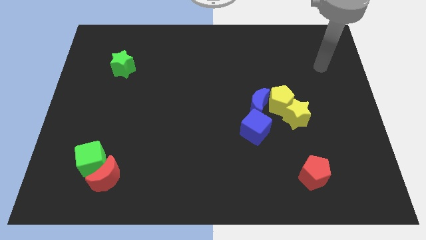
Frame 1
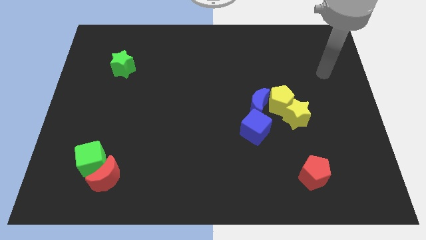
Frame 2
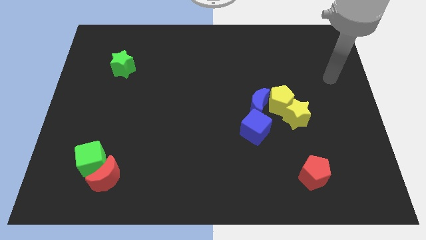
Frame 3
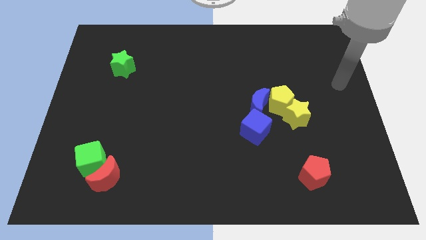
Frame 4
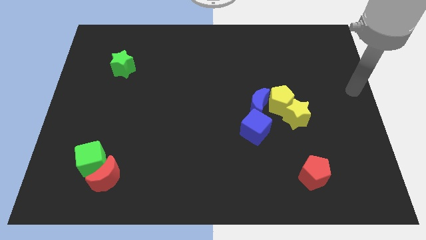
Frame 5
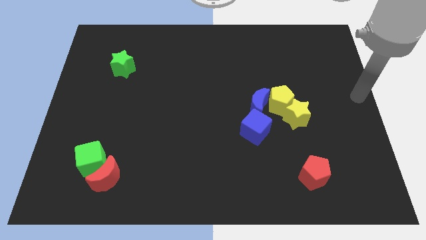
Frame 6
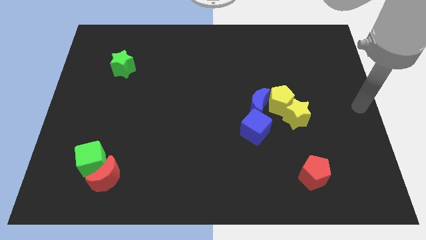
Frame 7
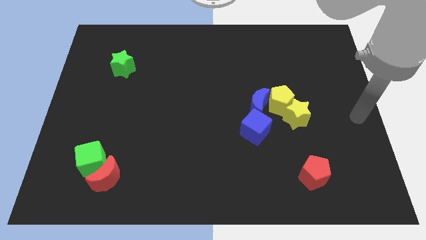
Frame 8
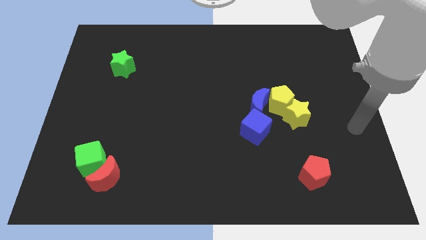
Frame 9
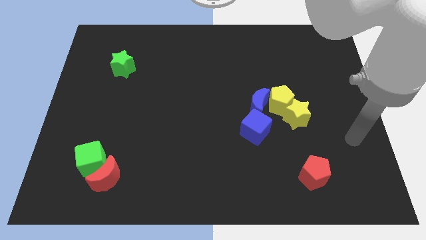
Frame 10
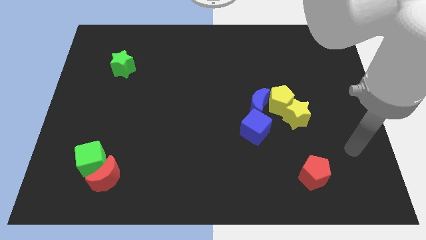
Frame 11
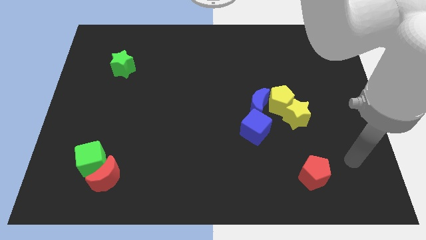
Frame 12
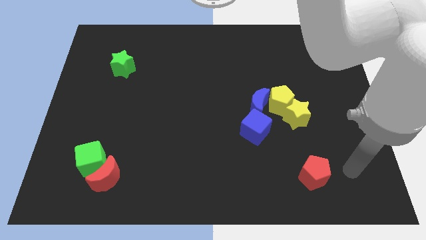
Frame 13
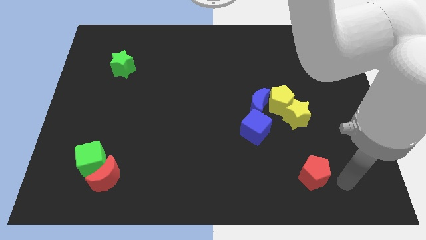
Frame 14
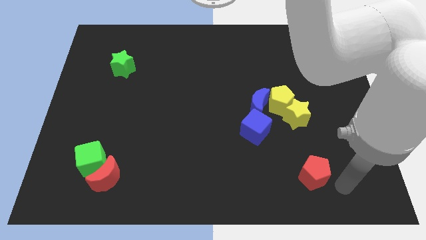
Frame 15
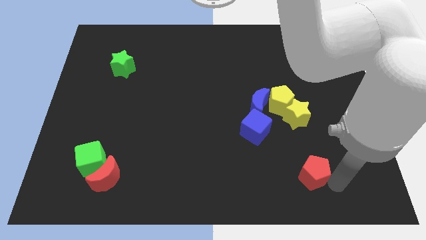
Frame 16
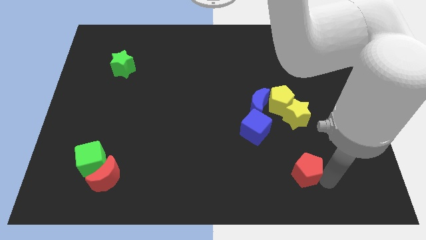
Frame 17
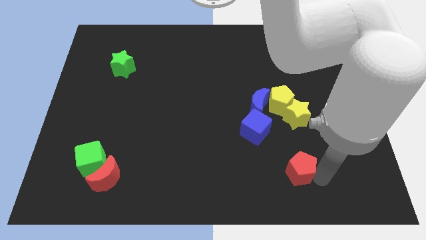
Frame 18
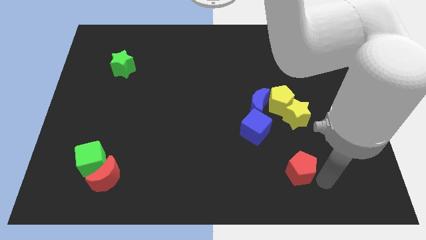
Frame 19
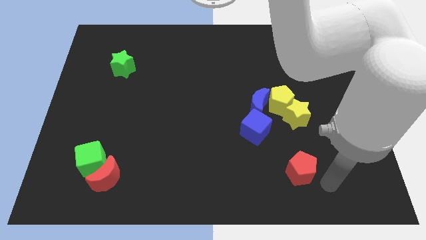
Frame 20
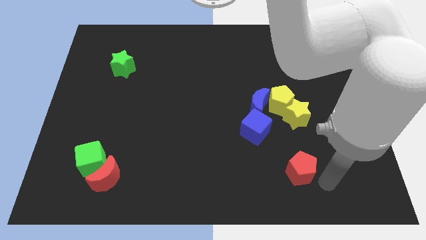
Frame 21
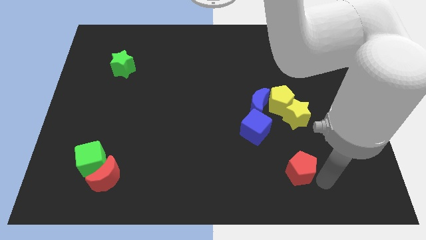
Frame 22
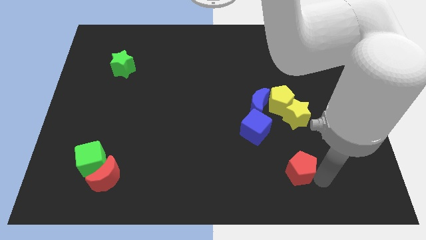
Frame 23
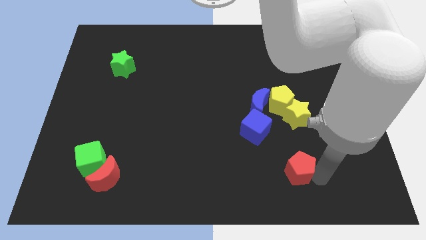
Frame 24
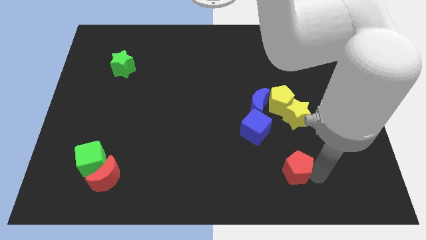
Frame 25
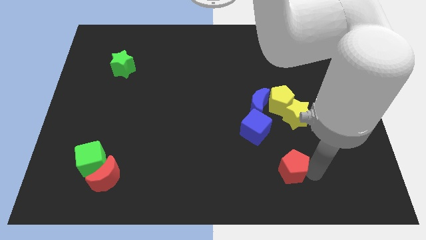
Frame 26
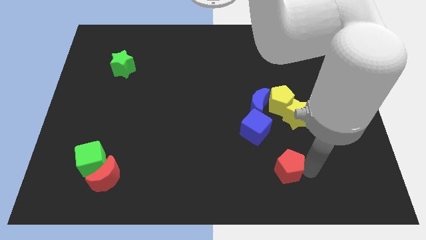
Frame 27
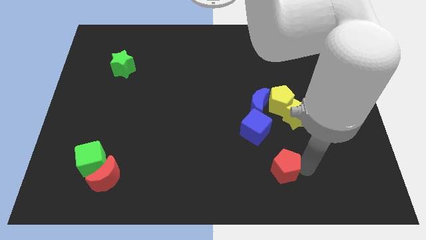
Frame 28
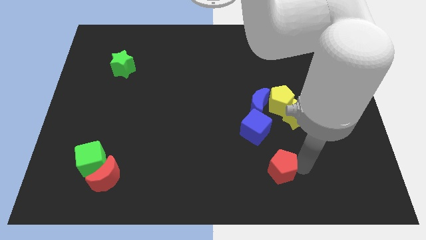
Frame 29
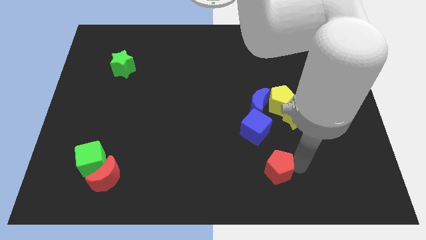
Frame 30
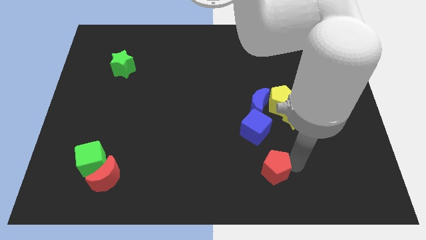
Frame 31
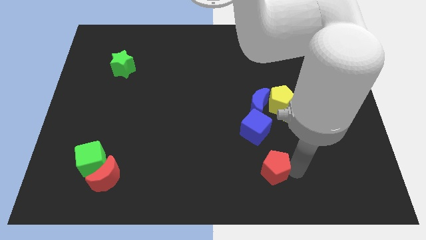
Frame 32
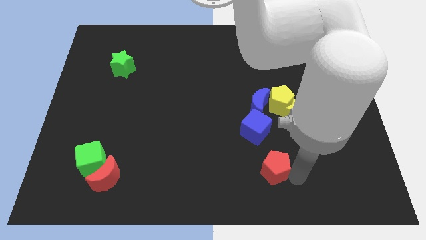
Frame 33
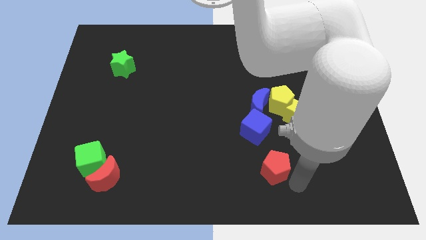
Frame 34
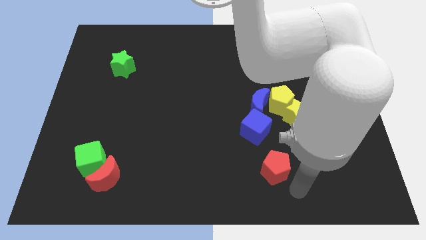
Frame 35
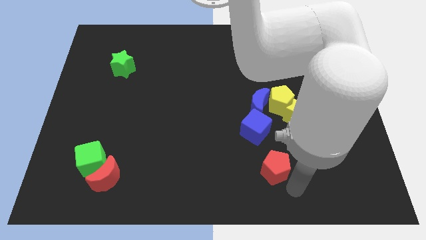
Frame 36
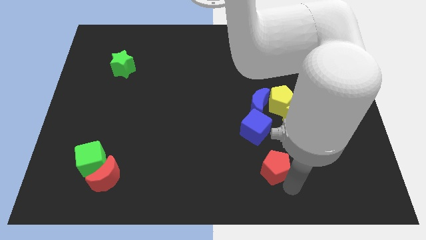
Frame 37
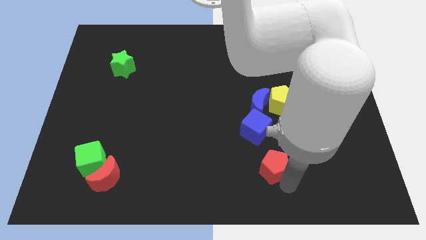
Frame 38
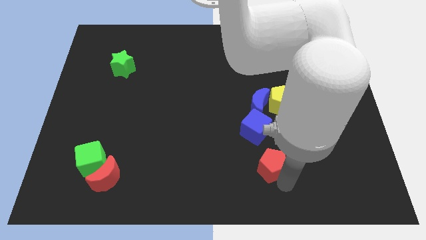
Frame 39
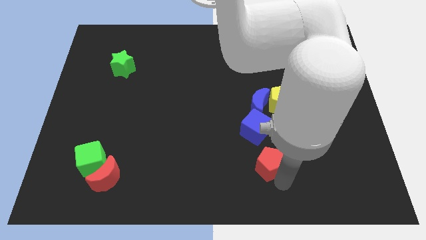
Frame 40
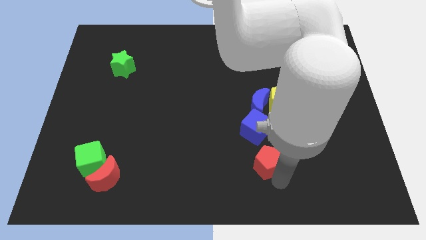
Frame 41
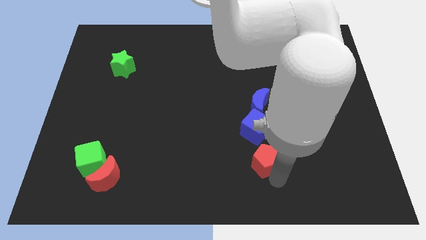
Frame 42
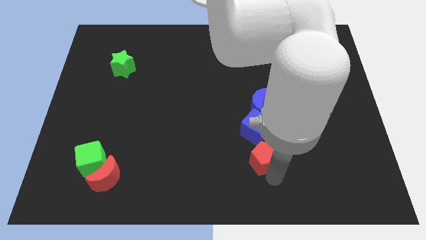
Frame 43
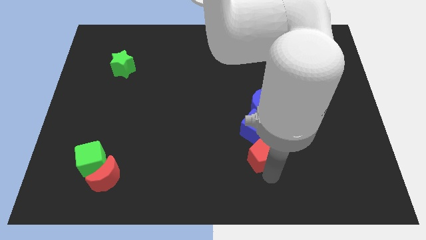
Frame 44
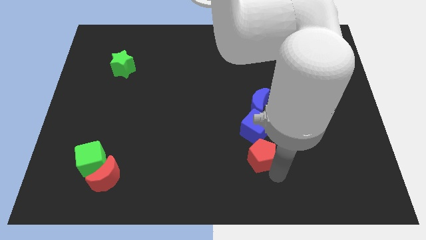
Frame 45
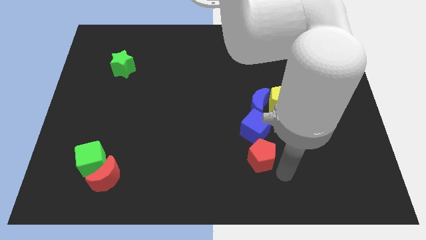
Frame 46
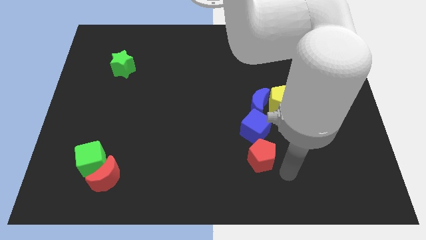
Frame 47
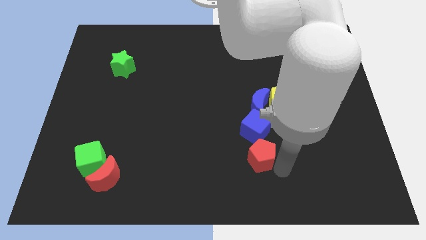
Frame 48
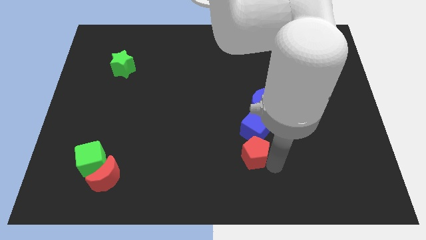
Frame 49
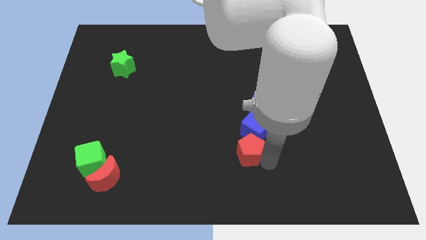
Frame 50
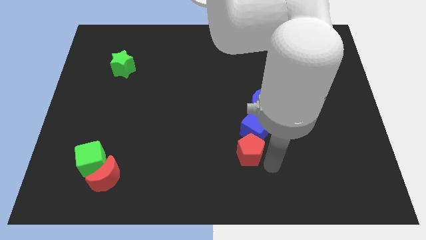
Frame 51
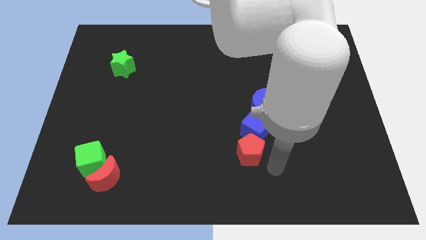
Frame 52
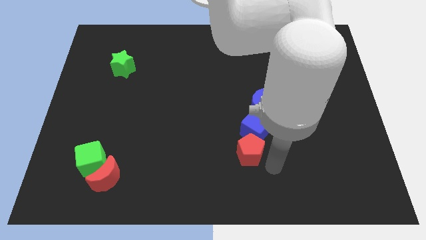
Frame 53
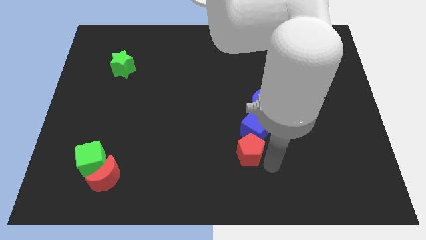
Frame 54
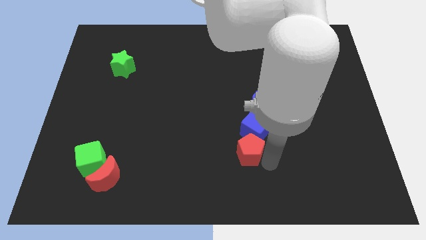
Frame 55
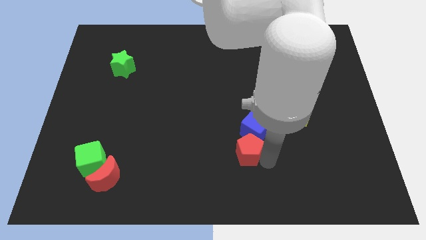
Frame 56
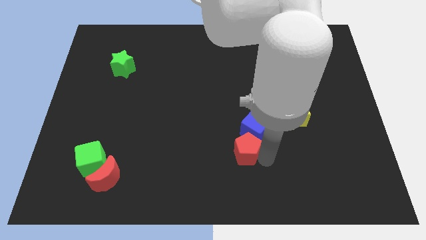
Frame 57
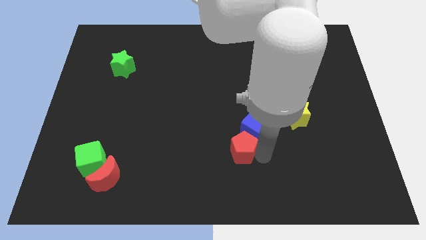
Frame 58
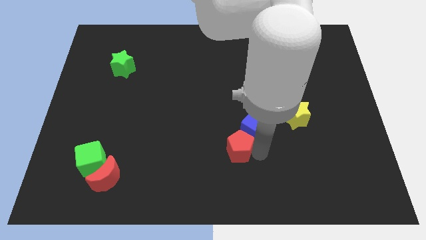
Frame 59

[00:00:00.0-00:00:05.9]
slide the red pentagon just left of the blue cube

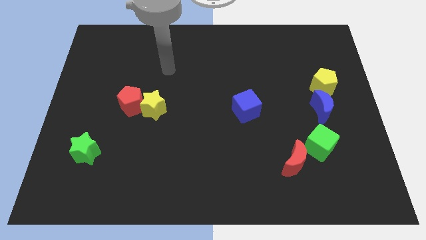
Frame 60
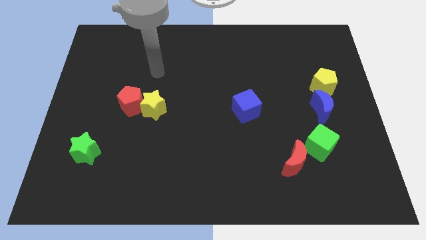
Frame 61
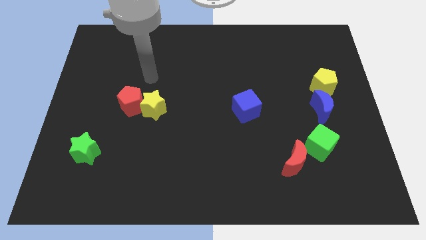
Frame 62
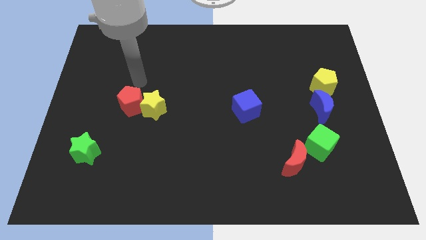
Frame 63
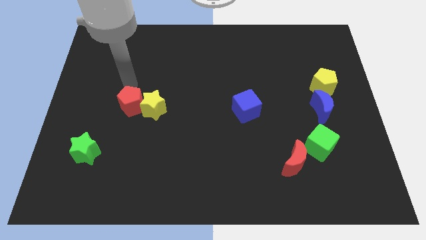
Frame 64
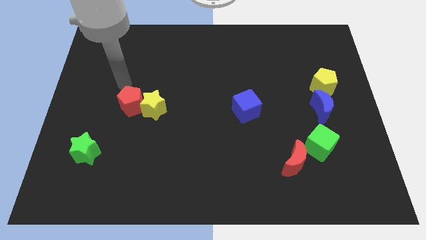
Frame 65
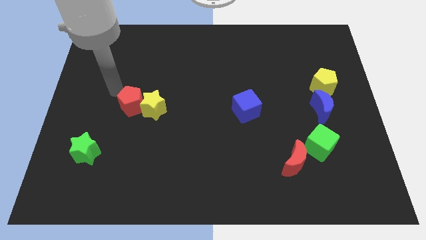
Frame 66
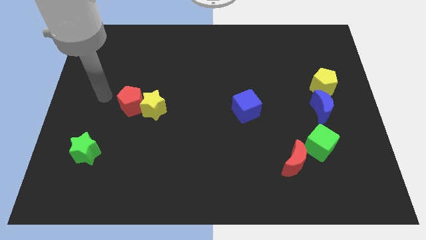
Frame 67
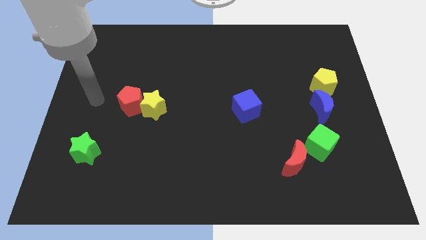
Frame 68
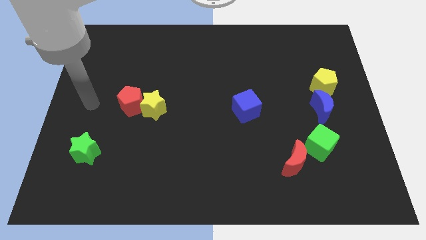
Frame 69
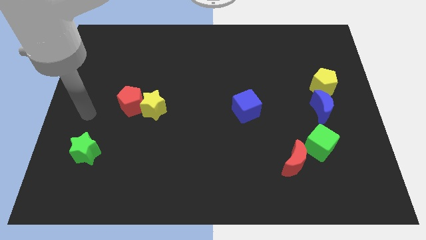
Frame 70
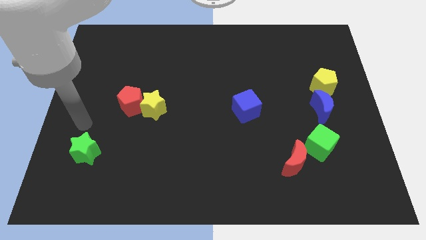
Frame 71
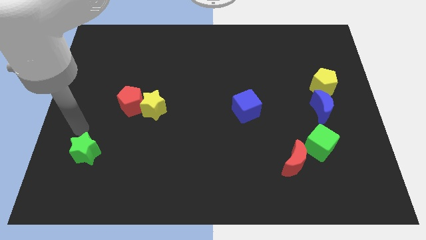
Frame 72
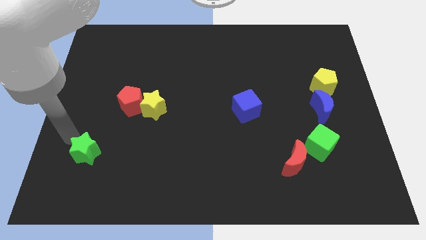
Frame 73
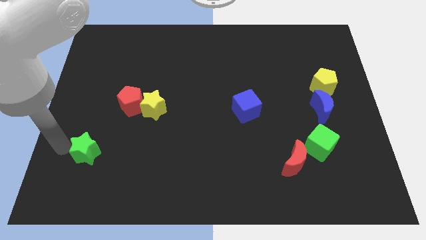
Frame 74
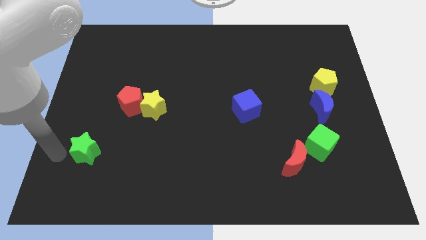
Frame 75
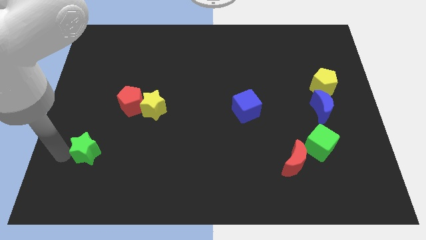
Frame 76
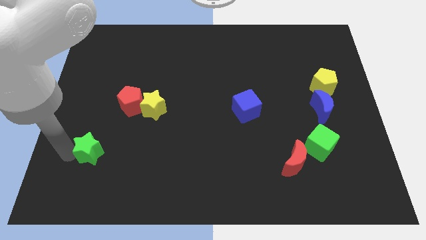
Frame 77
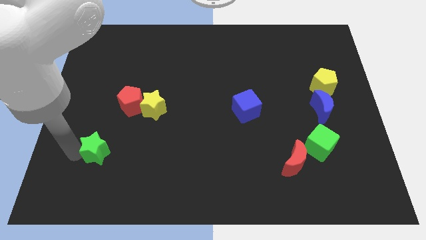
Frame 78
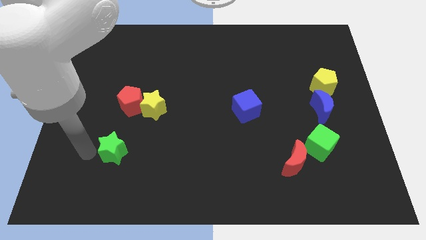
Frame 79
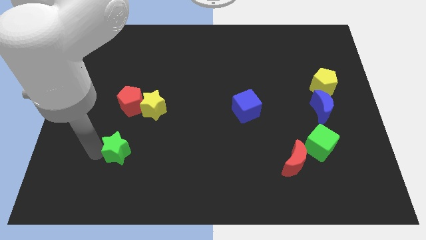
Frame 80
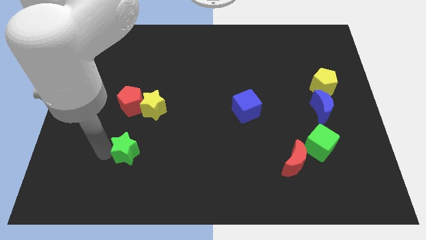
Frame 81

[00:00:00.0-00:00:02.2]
put the green star below the yellow star
